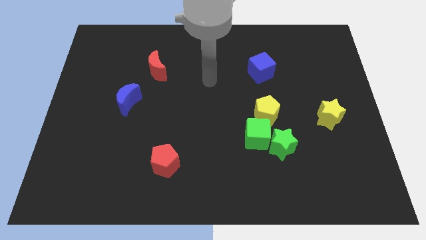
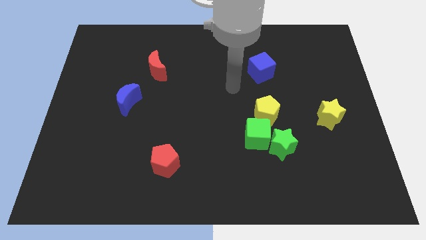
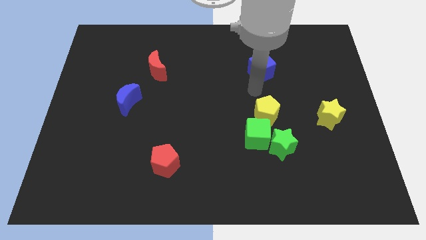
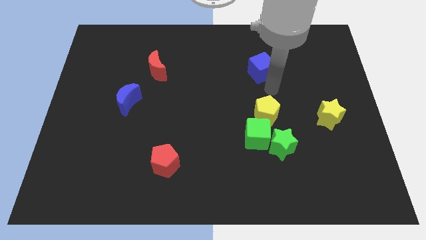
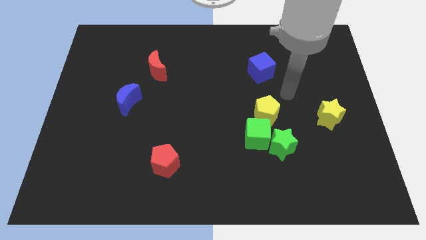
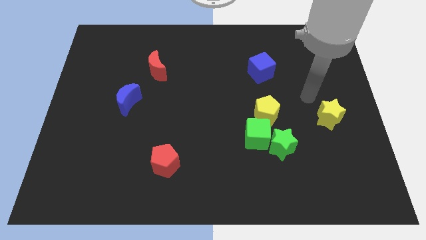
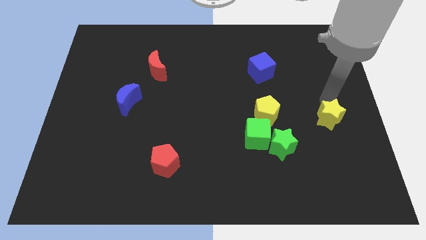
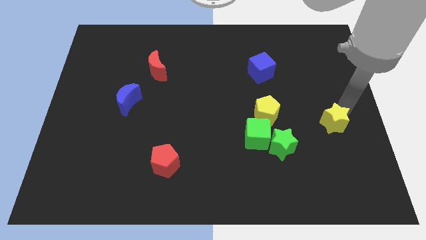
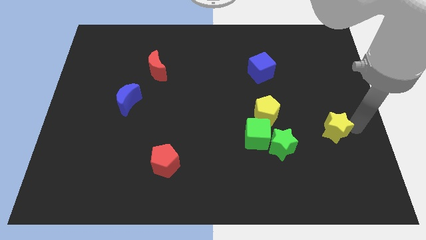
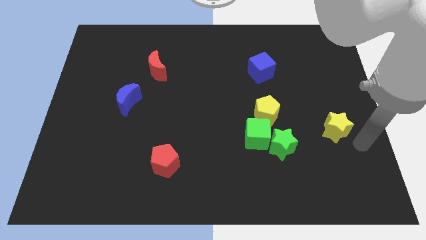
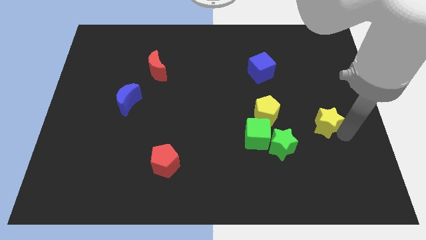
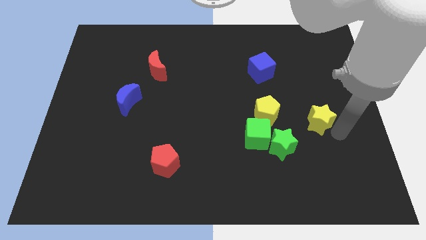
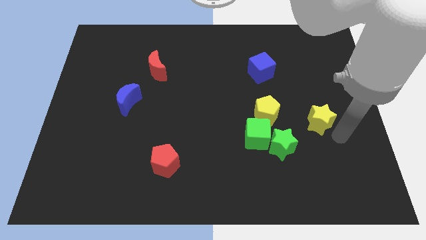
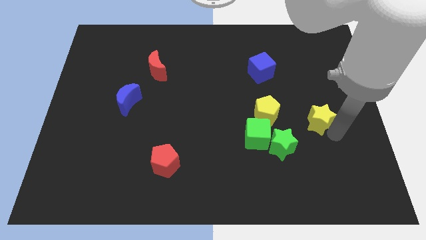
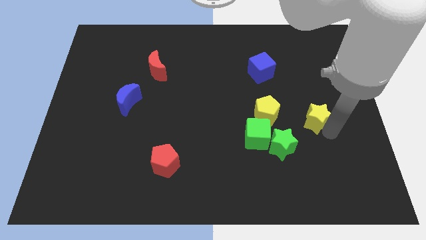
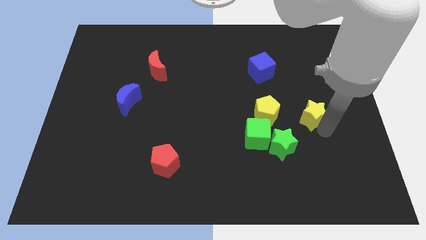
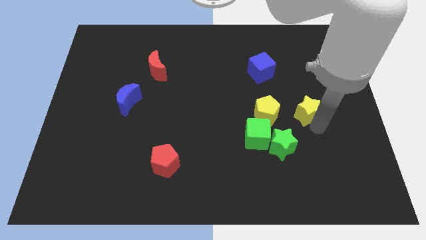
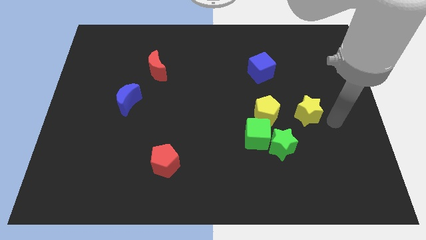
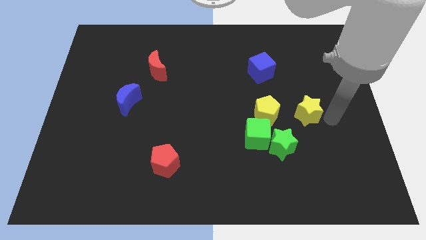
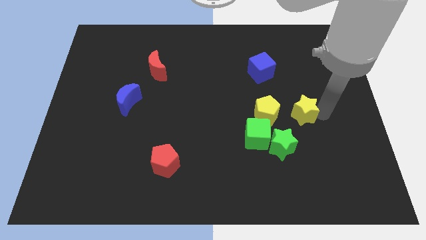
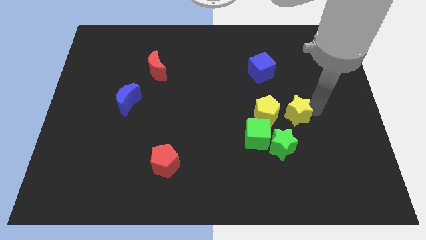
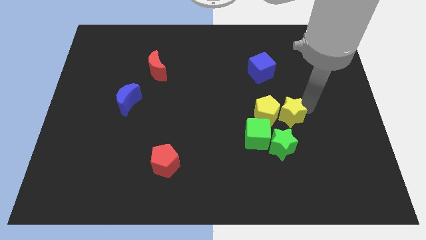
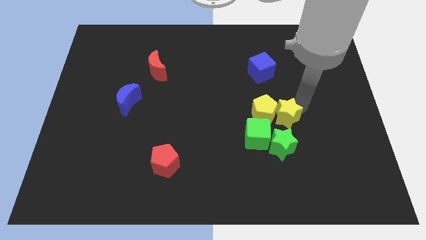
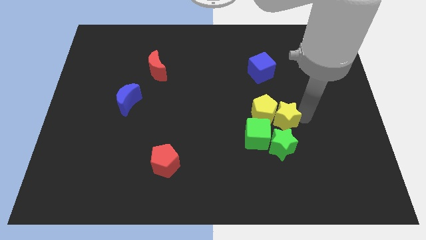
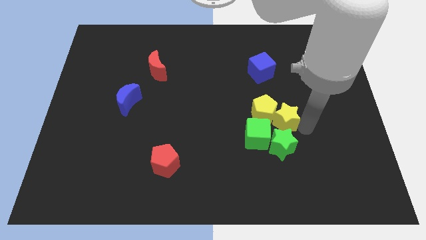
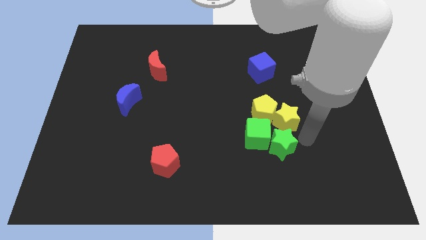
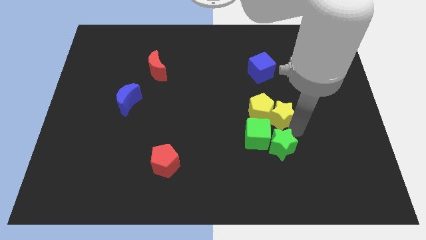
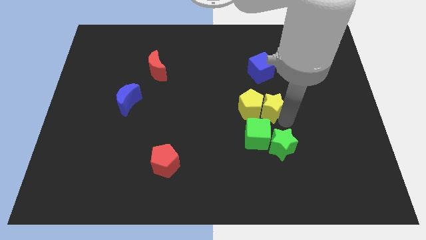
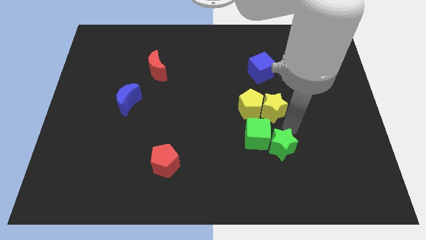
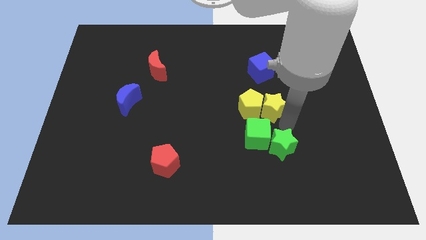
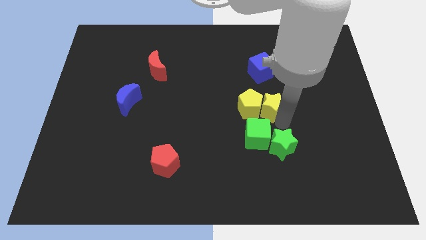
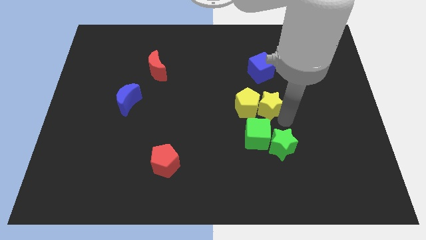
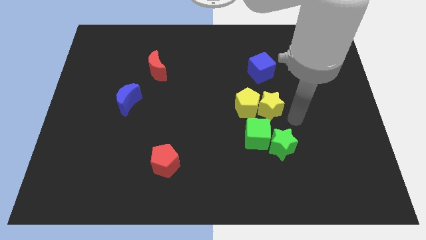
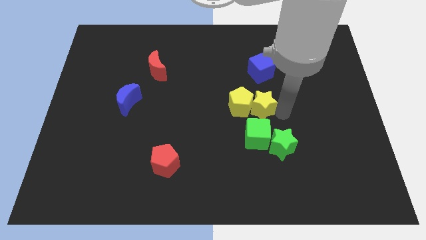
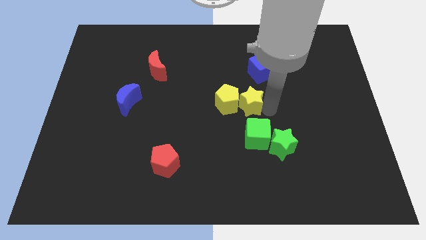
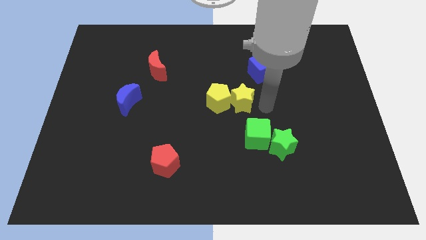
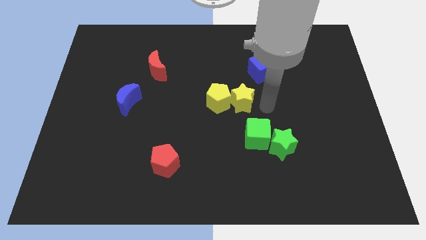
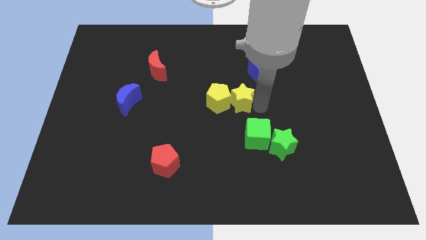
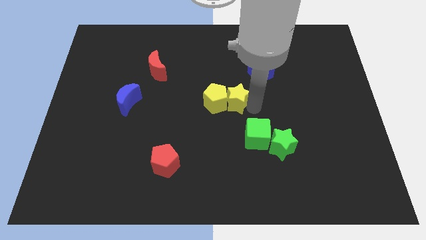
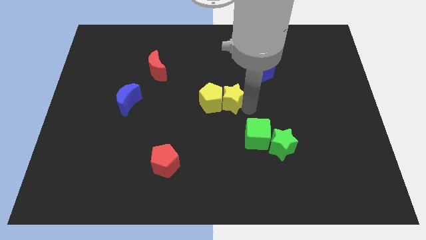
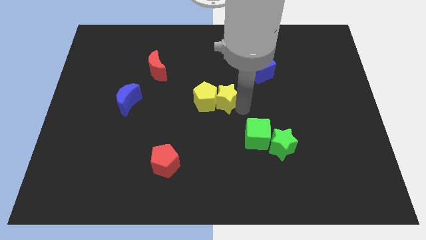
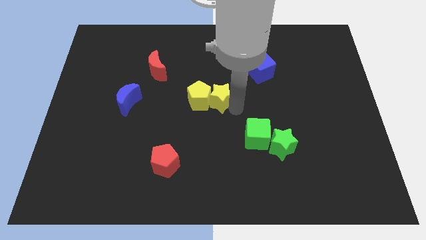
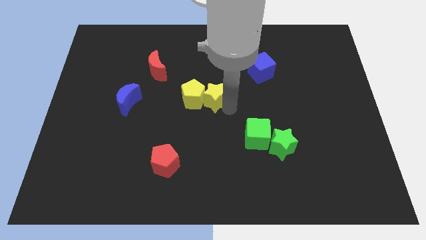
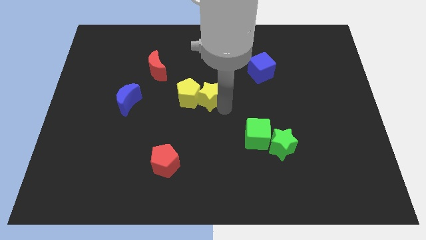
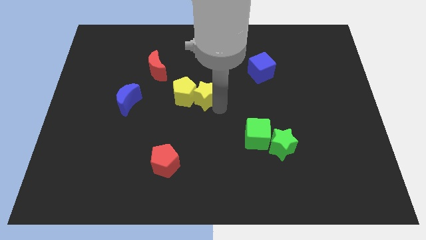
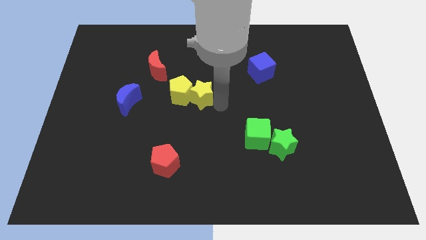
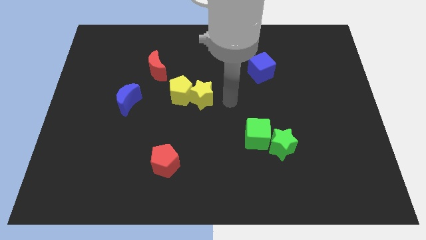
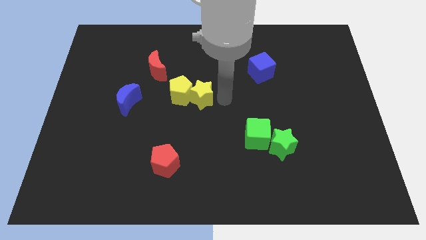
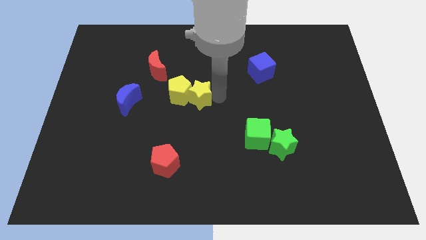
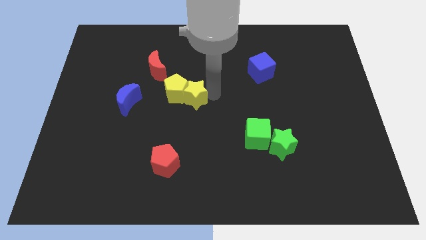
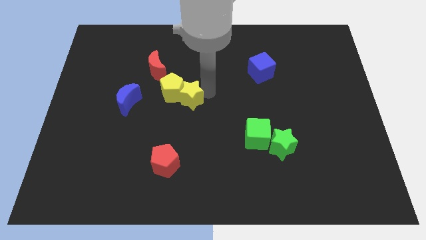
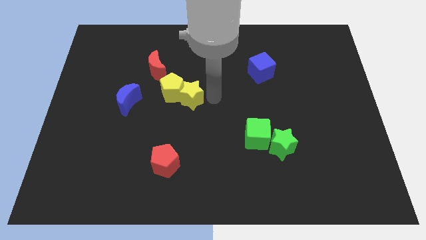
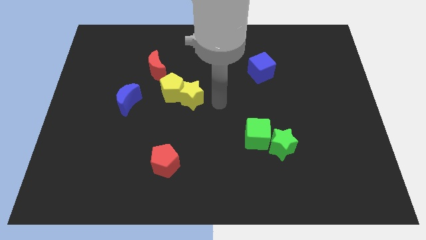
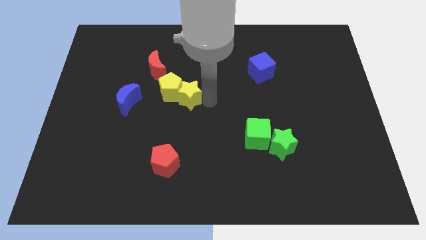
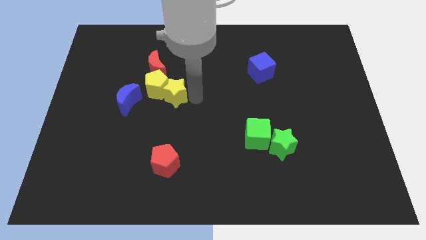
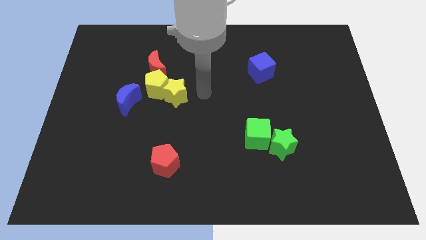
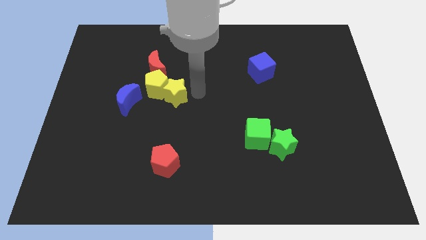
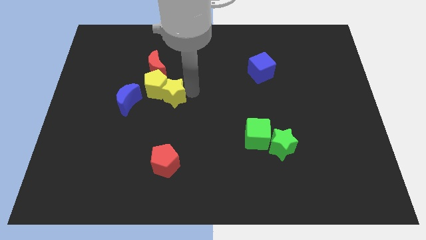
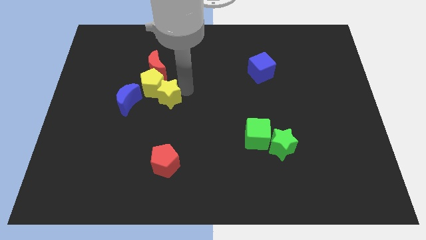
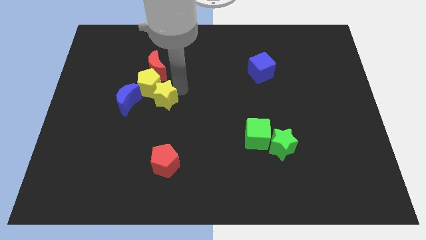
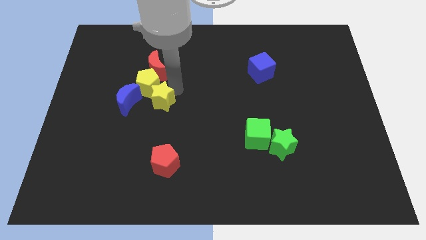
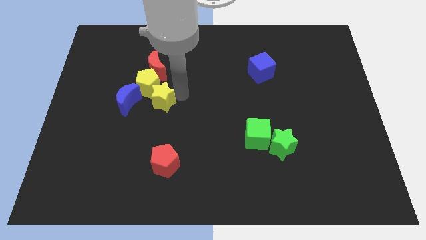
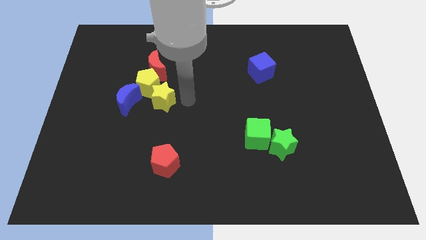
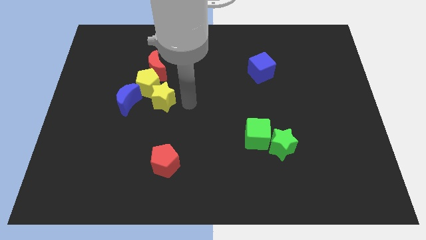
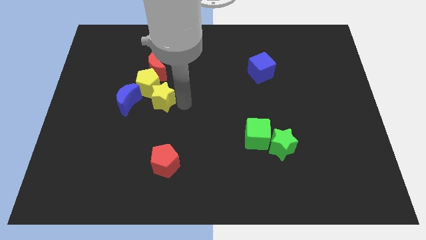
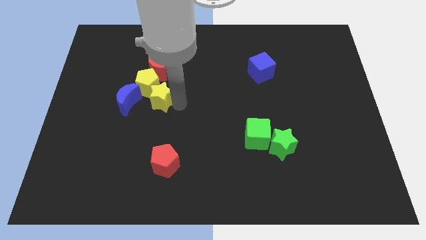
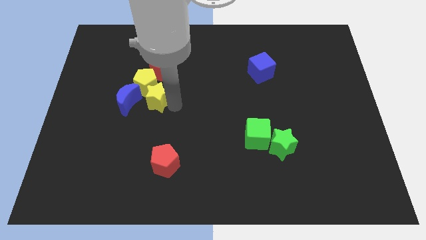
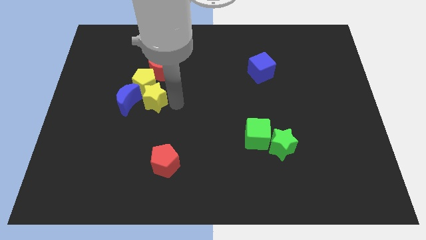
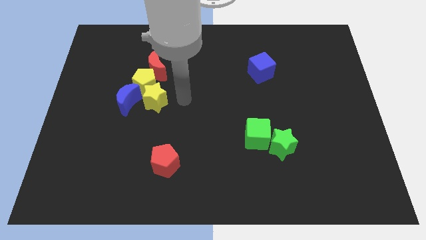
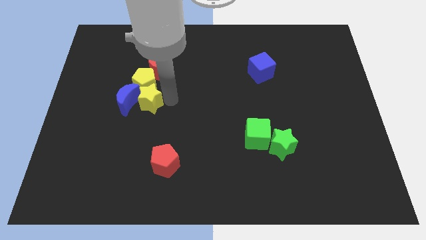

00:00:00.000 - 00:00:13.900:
slide the yellow star close to the blue moon

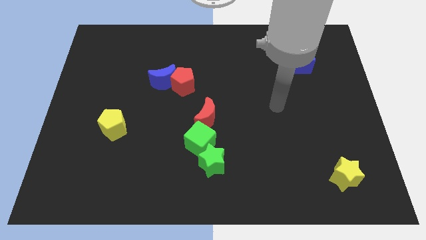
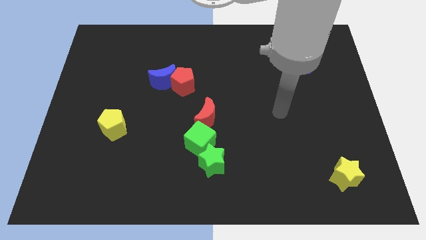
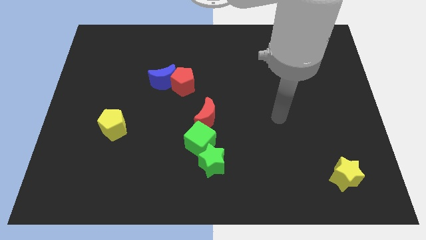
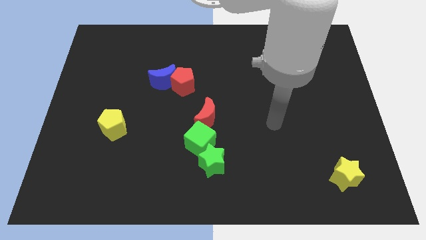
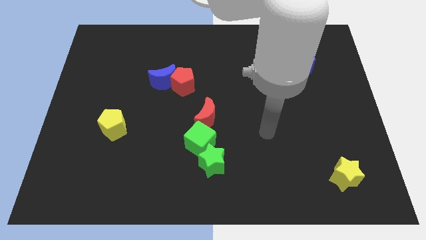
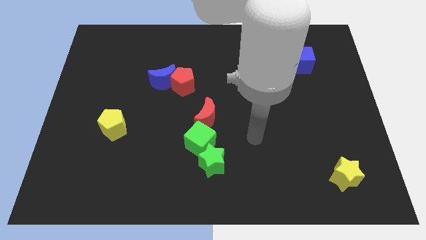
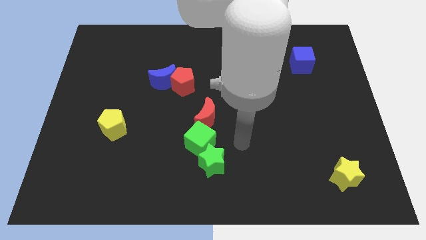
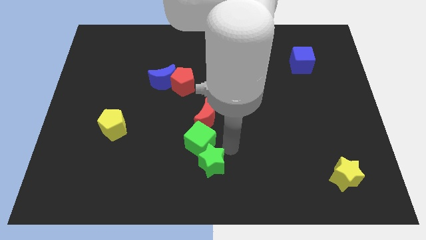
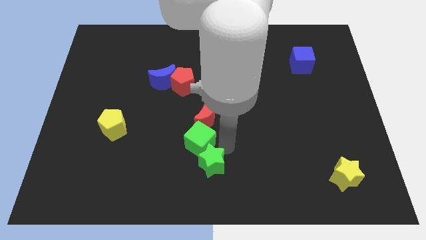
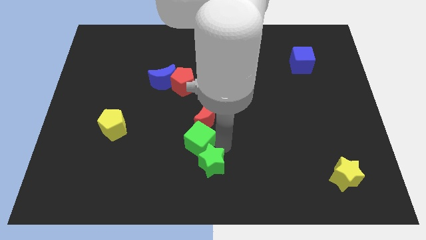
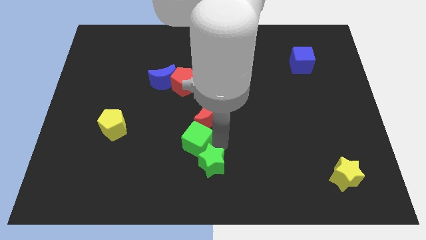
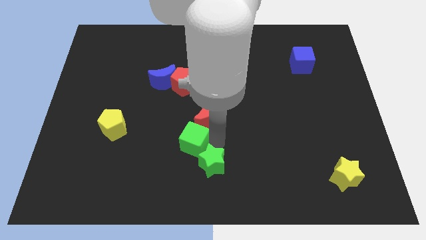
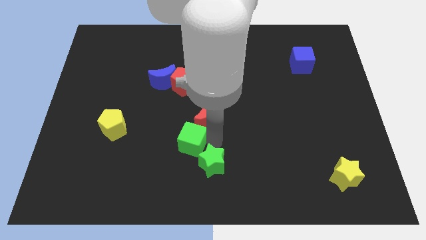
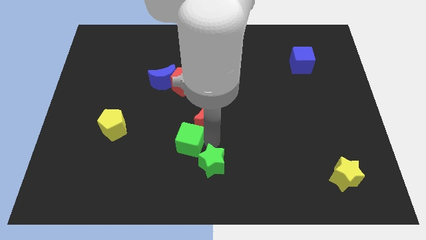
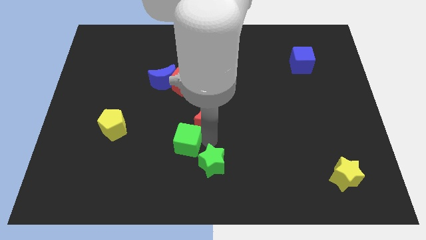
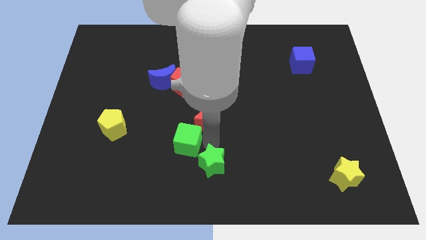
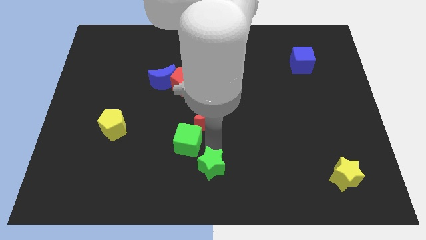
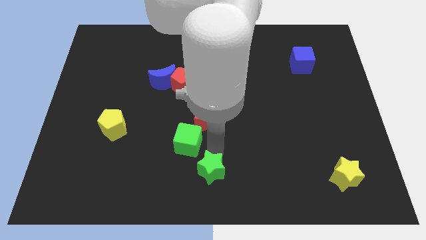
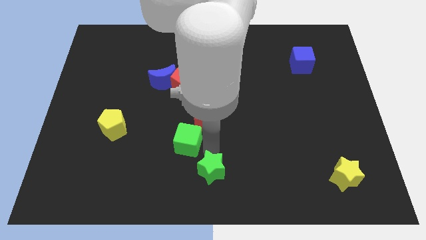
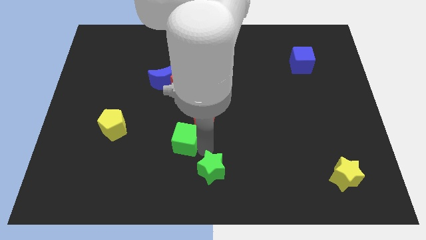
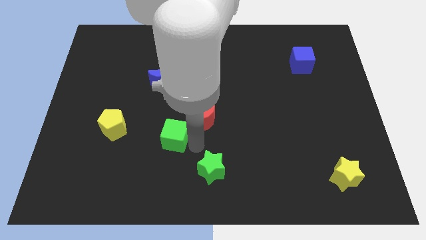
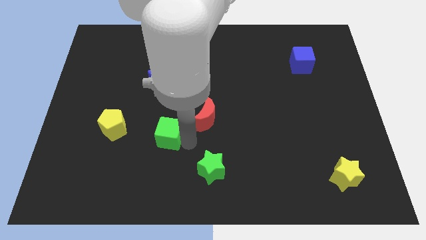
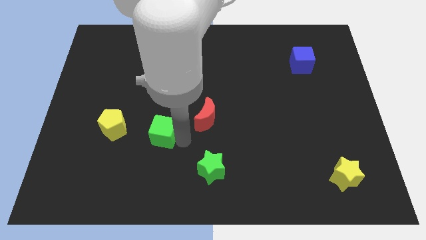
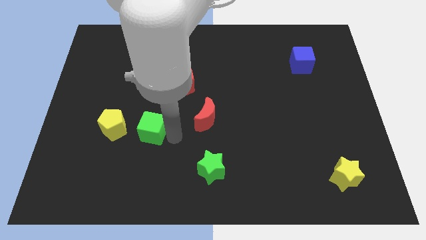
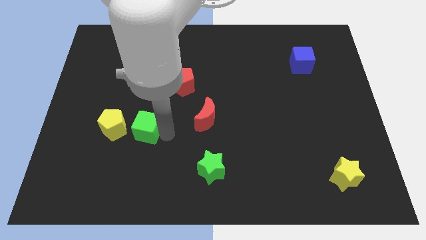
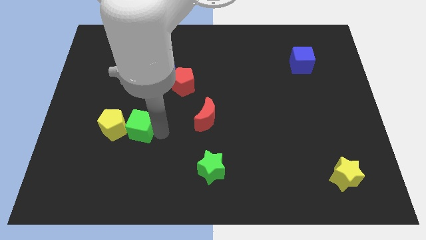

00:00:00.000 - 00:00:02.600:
put the green cube to the yellow pentagon
